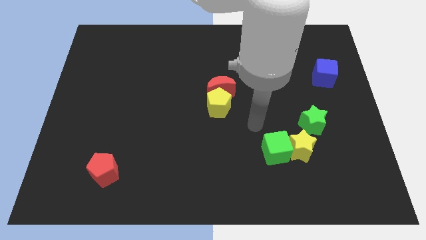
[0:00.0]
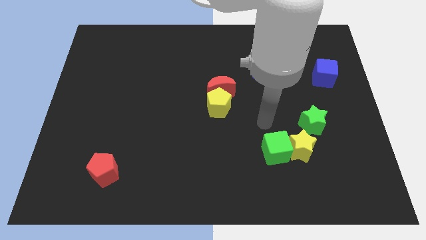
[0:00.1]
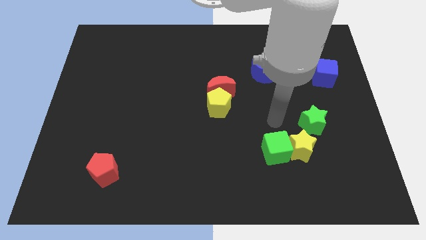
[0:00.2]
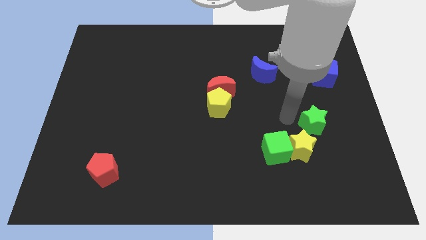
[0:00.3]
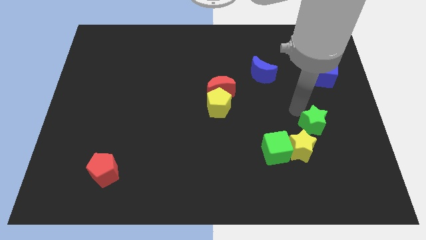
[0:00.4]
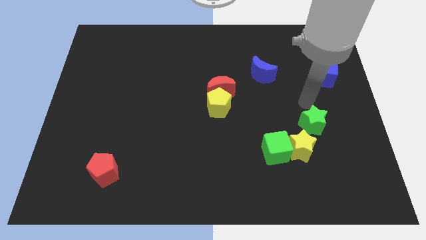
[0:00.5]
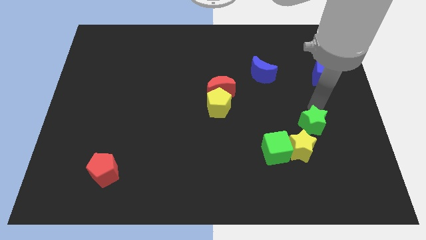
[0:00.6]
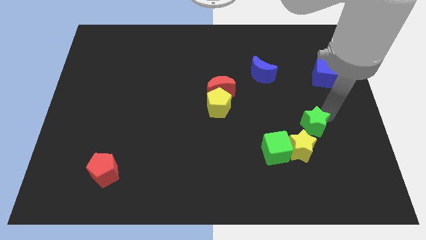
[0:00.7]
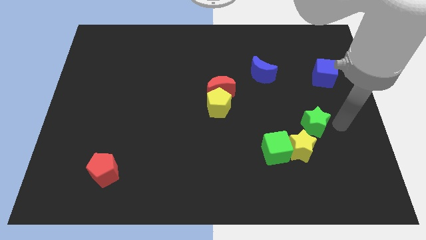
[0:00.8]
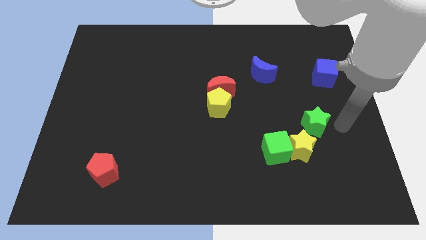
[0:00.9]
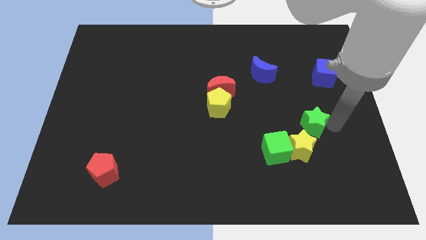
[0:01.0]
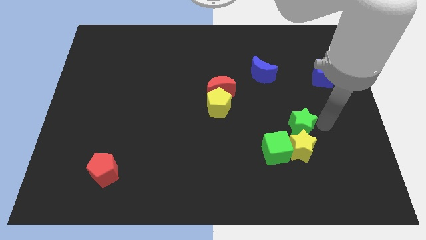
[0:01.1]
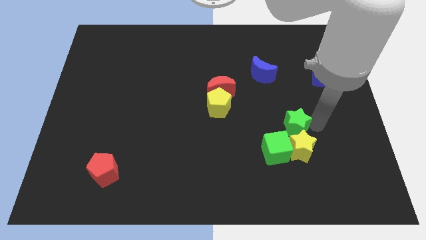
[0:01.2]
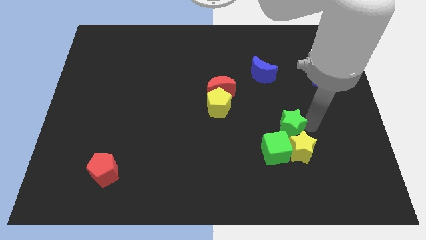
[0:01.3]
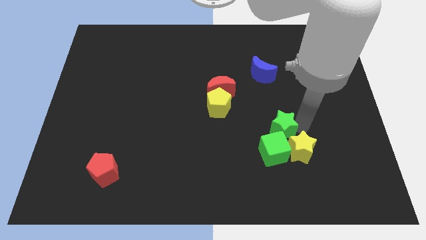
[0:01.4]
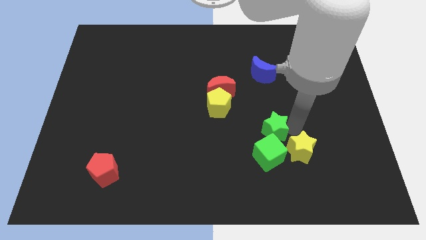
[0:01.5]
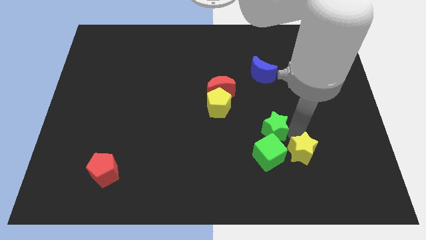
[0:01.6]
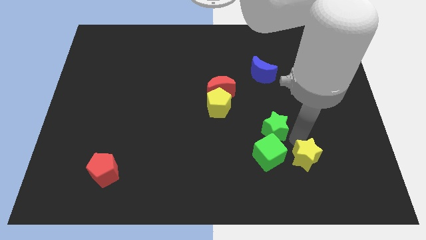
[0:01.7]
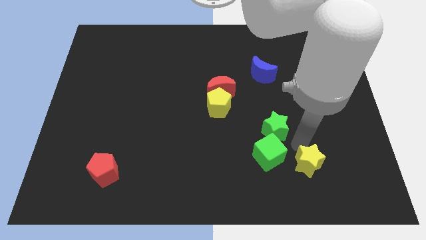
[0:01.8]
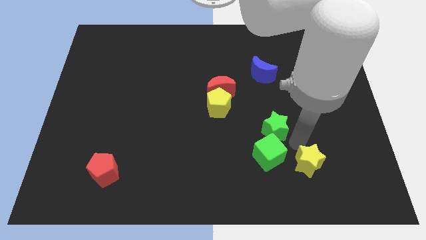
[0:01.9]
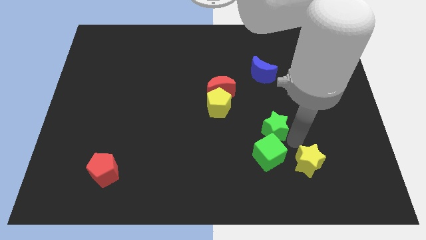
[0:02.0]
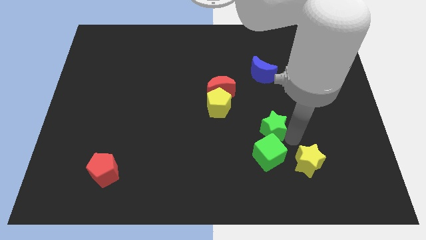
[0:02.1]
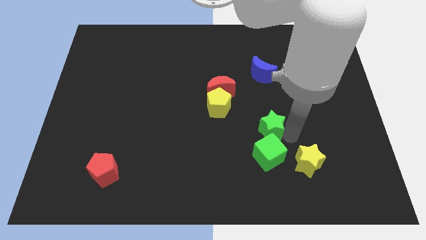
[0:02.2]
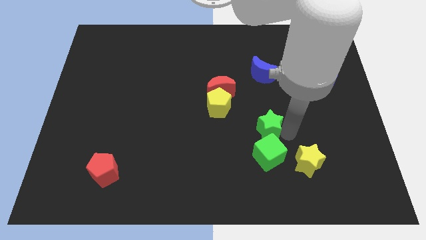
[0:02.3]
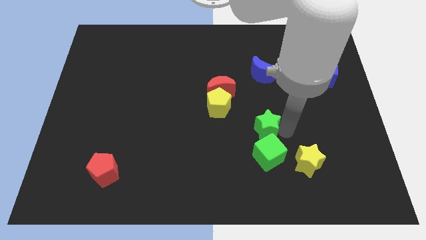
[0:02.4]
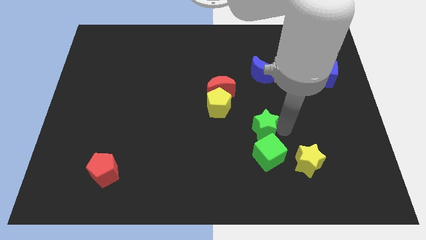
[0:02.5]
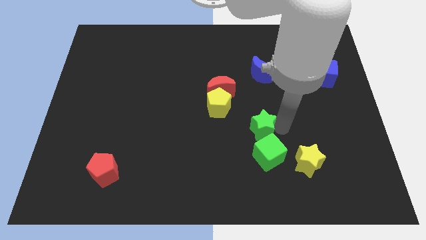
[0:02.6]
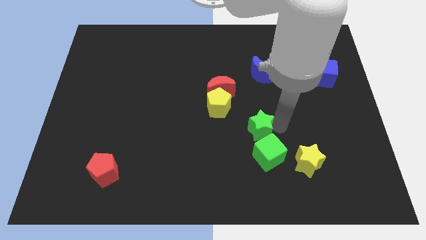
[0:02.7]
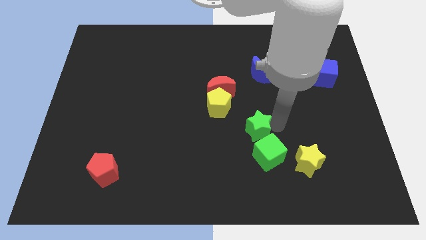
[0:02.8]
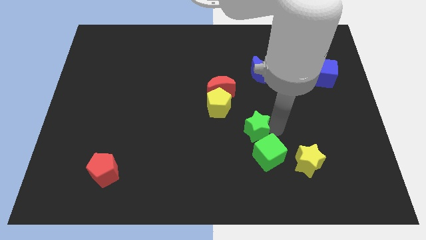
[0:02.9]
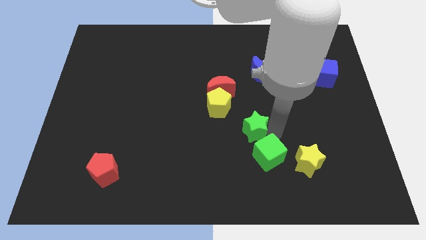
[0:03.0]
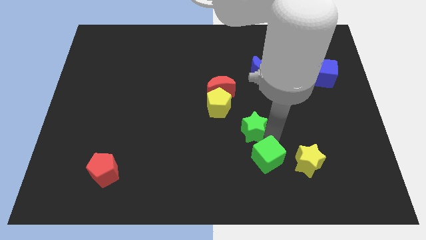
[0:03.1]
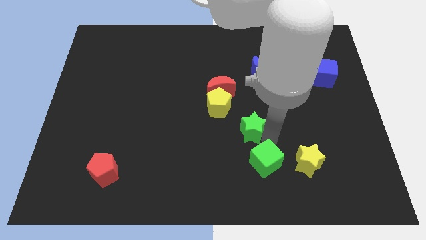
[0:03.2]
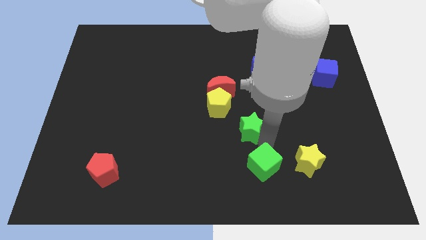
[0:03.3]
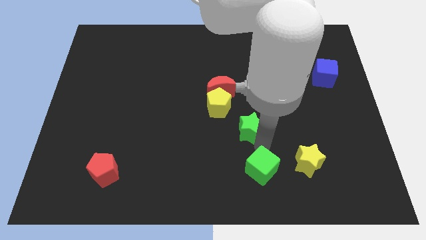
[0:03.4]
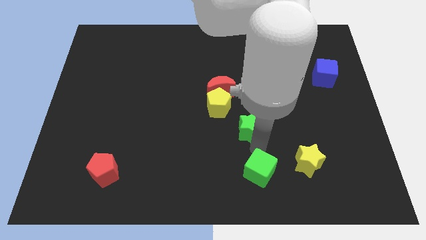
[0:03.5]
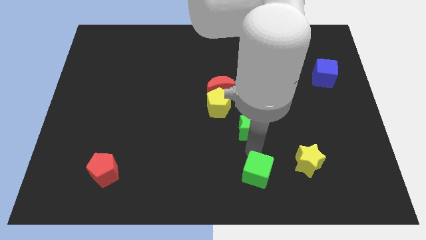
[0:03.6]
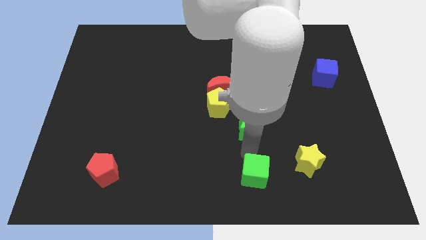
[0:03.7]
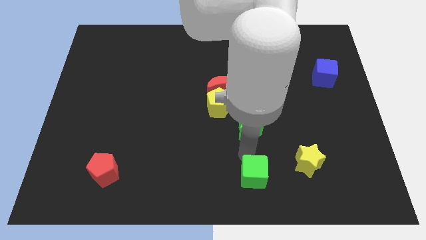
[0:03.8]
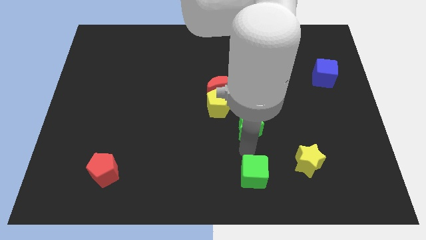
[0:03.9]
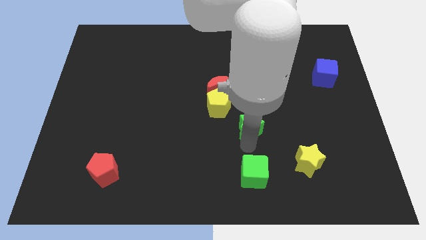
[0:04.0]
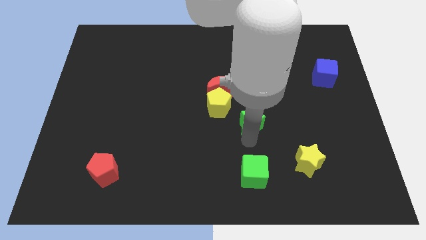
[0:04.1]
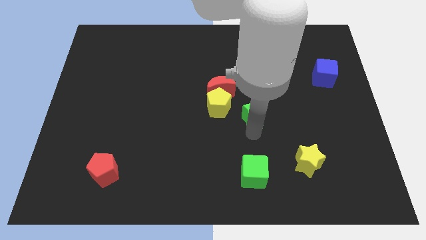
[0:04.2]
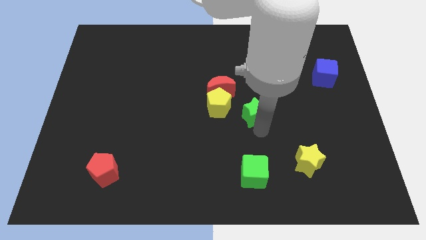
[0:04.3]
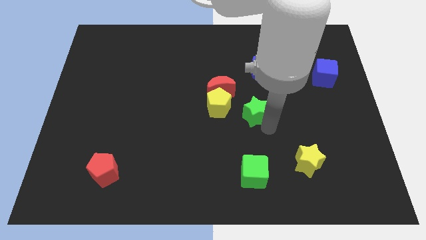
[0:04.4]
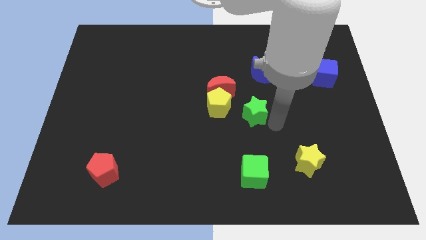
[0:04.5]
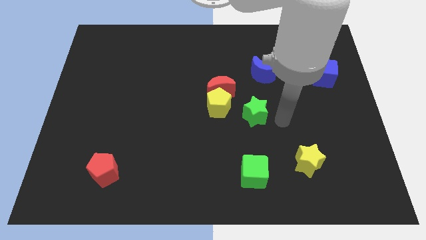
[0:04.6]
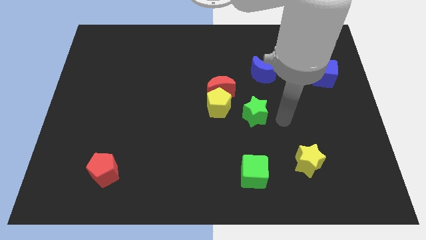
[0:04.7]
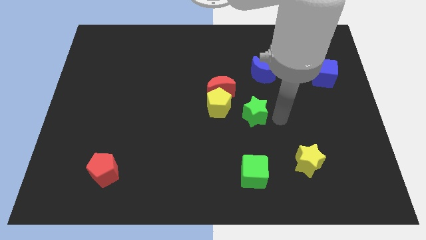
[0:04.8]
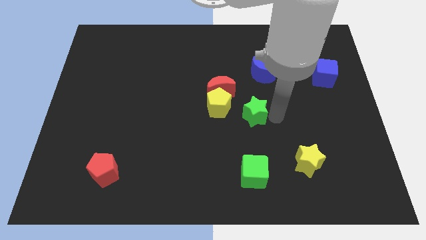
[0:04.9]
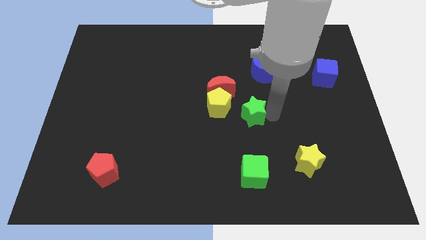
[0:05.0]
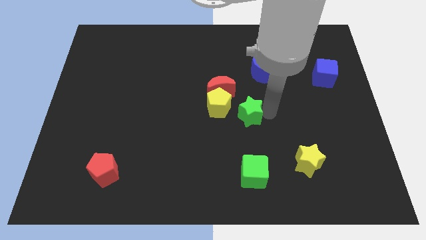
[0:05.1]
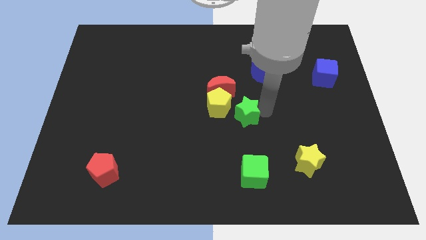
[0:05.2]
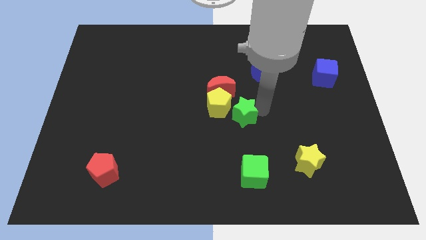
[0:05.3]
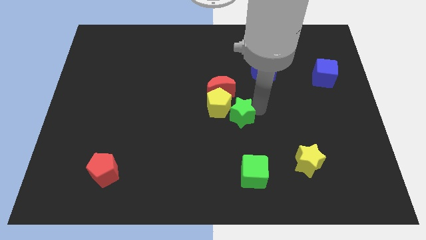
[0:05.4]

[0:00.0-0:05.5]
put the green star towards the yellow pentagon

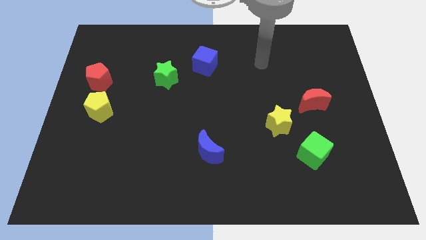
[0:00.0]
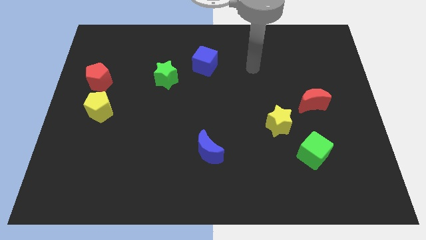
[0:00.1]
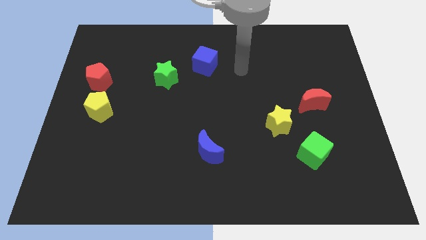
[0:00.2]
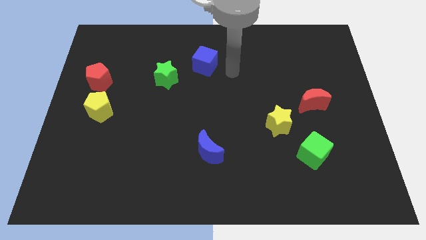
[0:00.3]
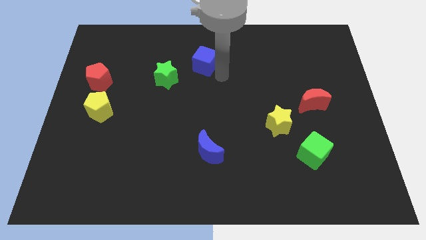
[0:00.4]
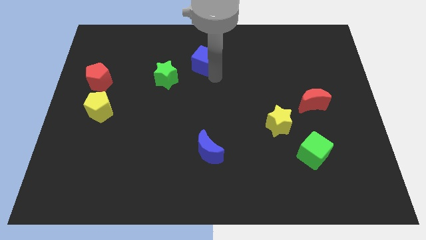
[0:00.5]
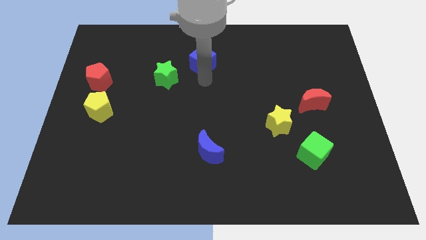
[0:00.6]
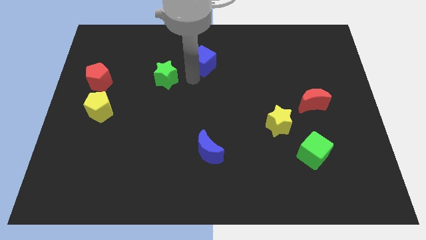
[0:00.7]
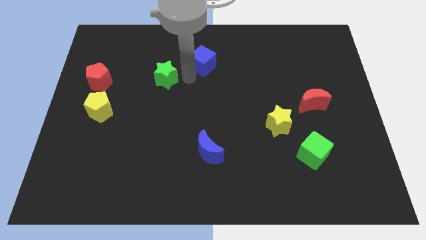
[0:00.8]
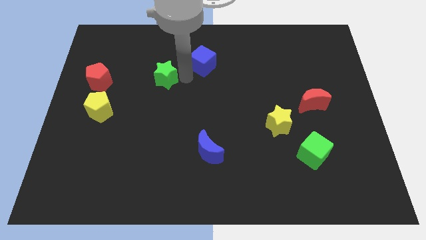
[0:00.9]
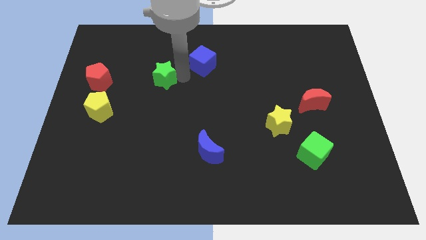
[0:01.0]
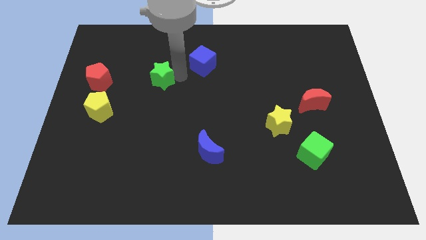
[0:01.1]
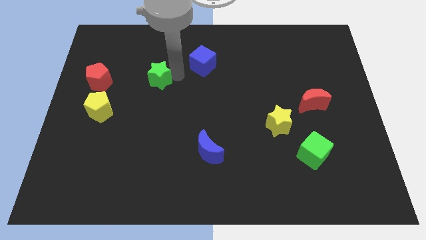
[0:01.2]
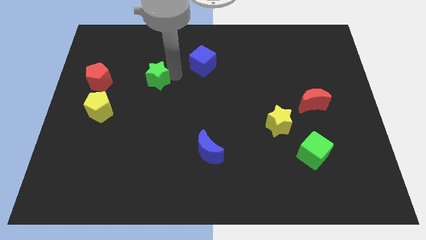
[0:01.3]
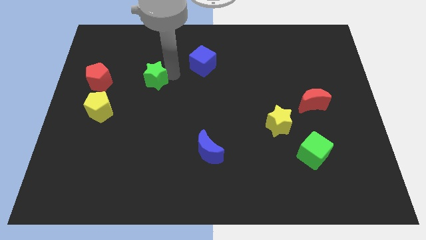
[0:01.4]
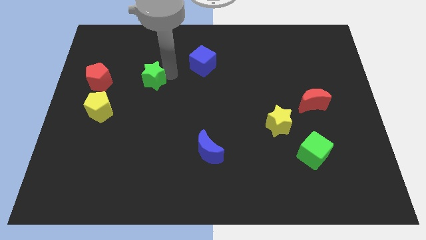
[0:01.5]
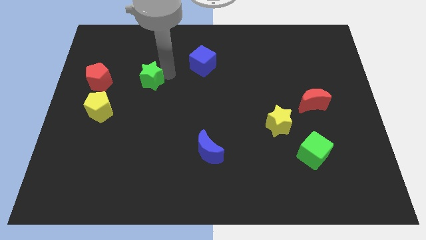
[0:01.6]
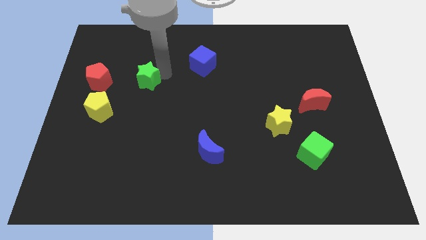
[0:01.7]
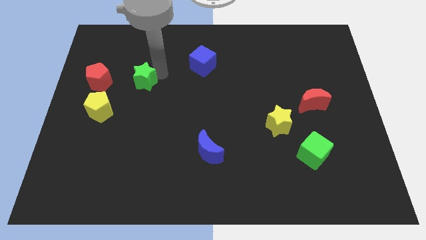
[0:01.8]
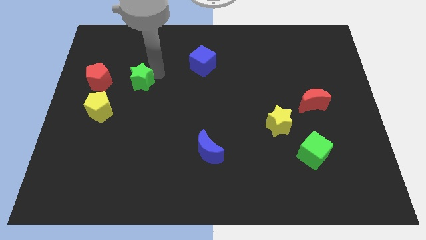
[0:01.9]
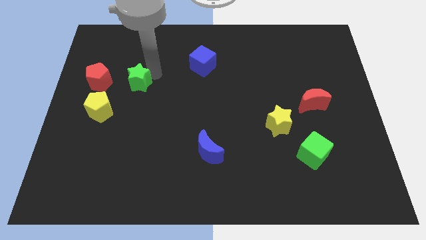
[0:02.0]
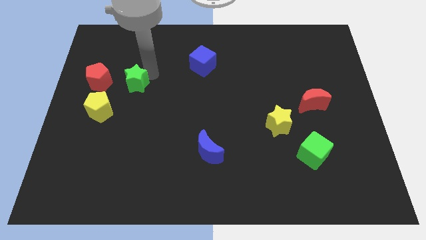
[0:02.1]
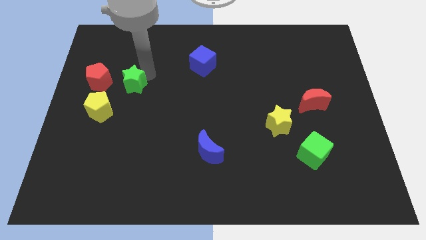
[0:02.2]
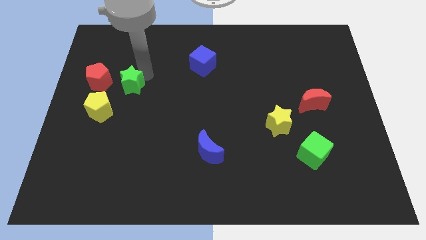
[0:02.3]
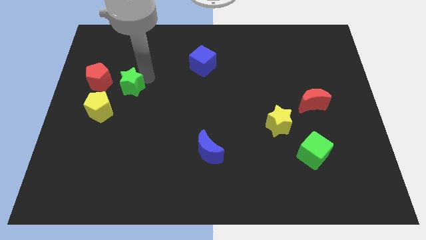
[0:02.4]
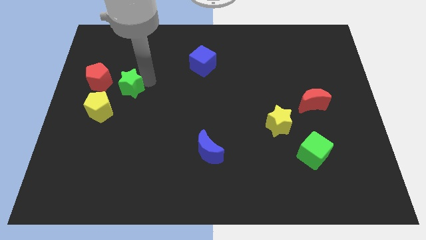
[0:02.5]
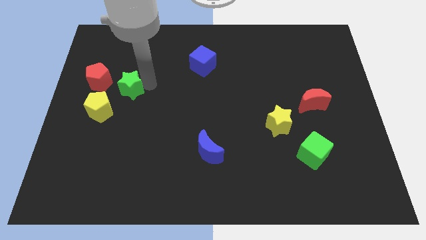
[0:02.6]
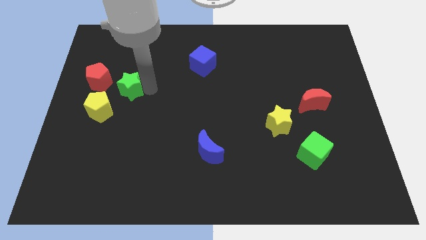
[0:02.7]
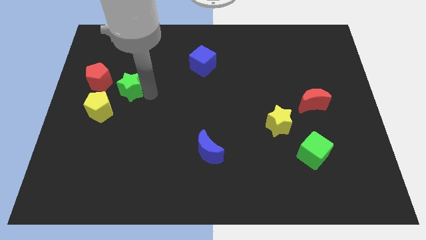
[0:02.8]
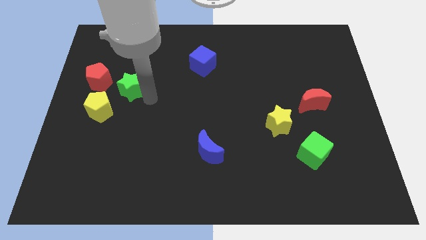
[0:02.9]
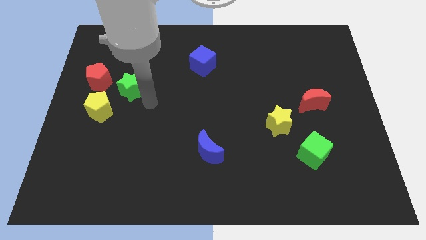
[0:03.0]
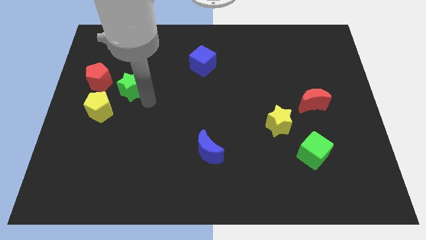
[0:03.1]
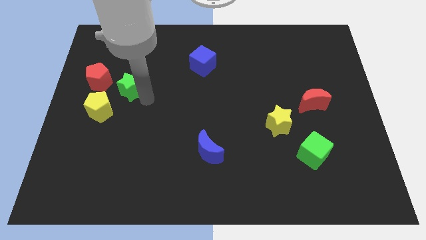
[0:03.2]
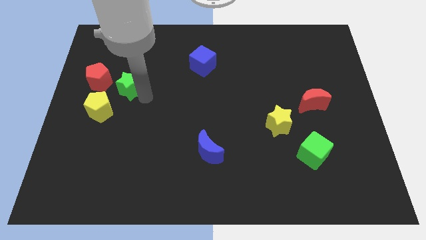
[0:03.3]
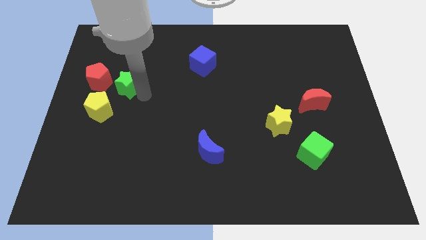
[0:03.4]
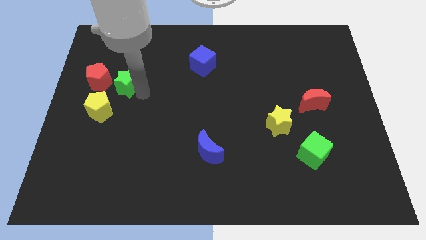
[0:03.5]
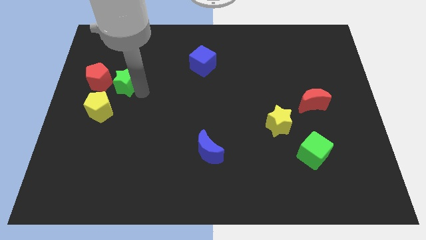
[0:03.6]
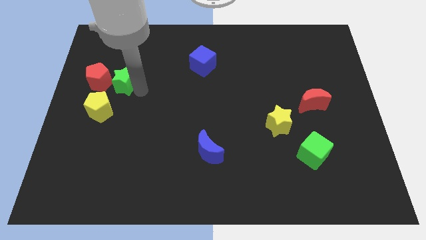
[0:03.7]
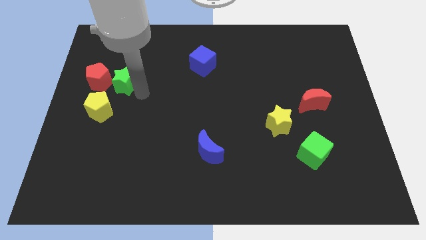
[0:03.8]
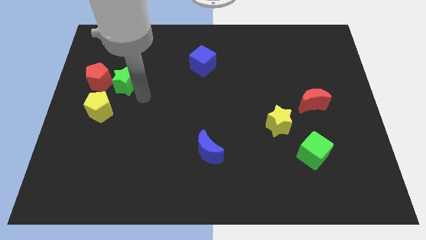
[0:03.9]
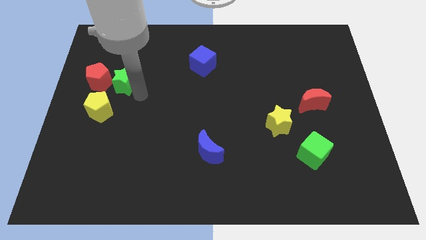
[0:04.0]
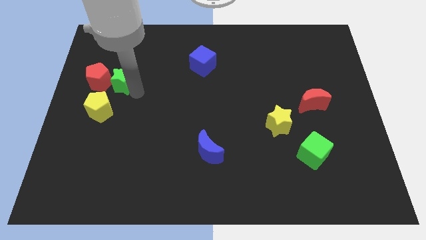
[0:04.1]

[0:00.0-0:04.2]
slide the green star to the red pentagon
